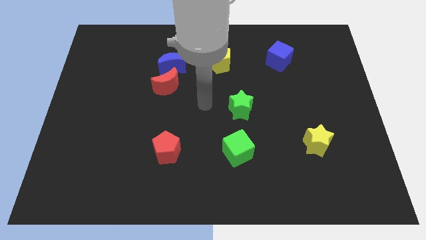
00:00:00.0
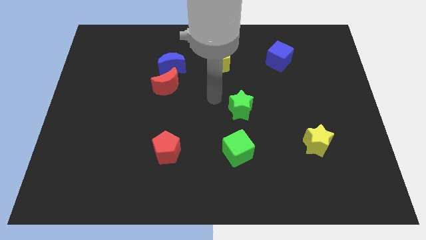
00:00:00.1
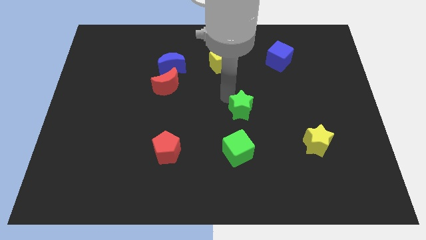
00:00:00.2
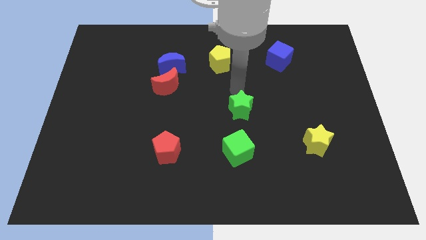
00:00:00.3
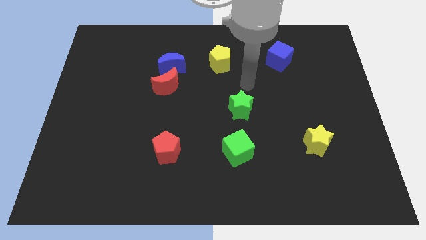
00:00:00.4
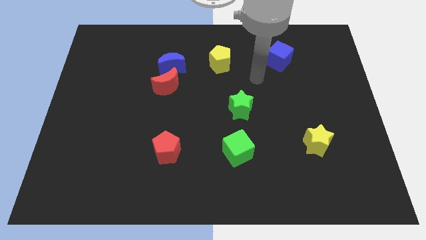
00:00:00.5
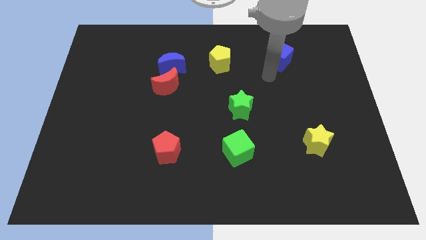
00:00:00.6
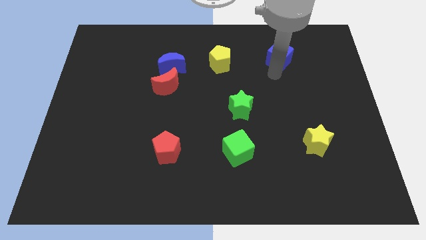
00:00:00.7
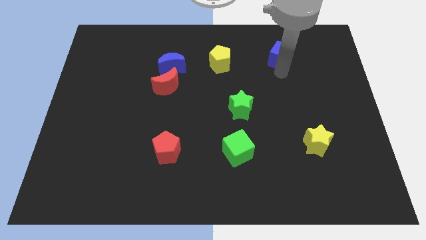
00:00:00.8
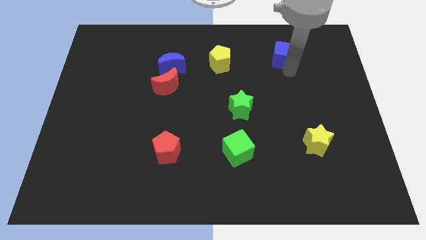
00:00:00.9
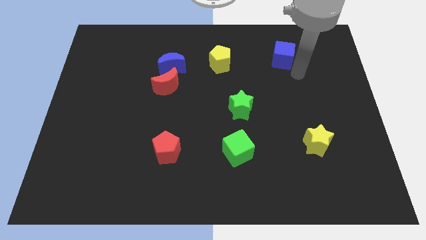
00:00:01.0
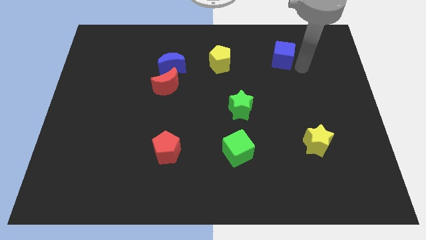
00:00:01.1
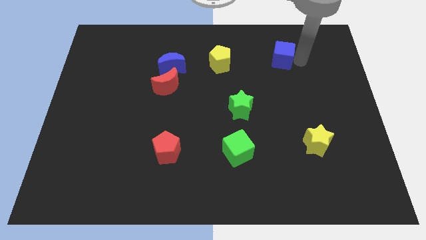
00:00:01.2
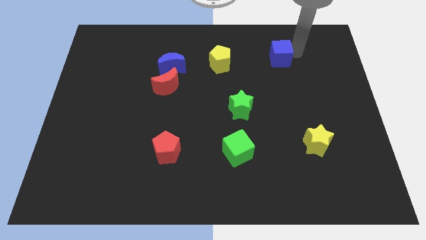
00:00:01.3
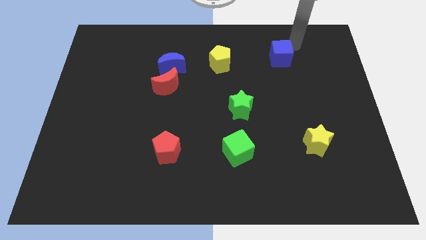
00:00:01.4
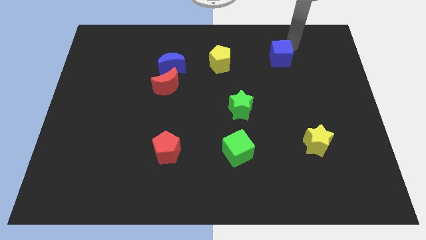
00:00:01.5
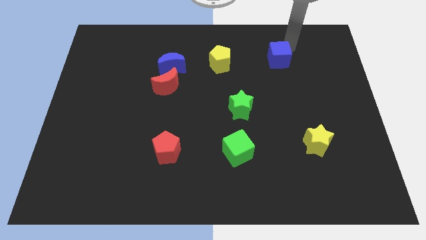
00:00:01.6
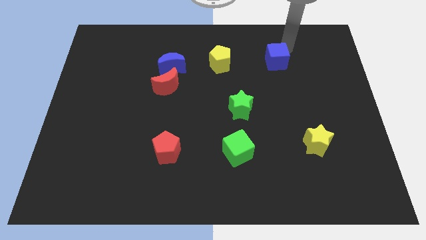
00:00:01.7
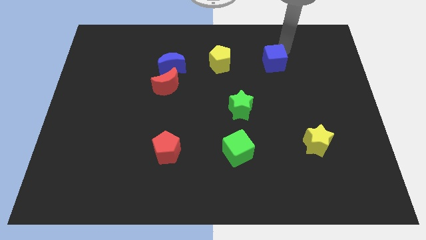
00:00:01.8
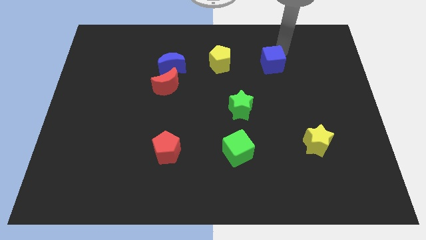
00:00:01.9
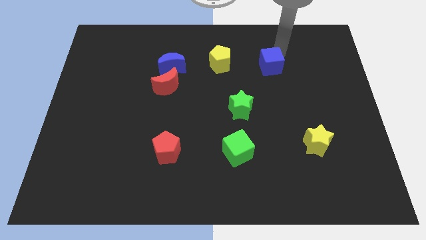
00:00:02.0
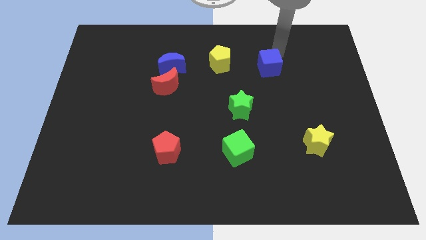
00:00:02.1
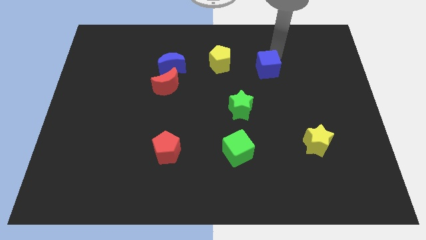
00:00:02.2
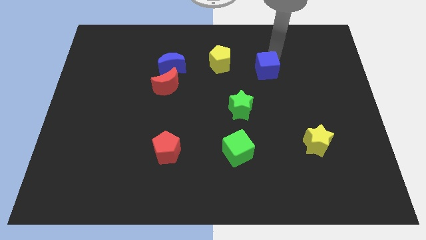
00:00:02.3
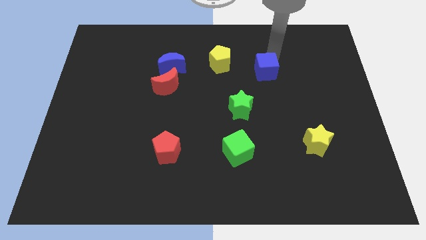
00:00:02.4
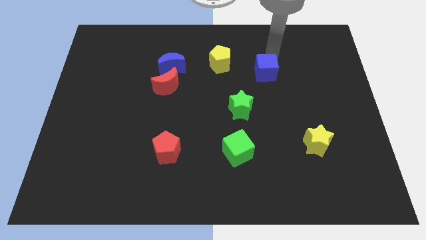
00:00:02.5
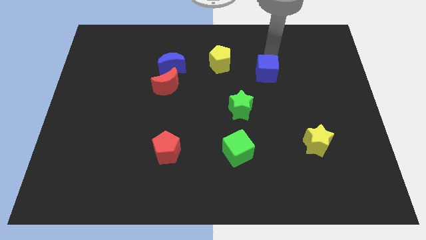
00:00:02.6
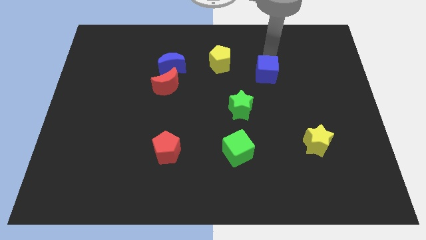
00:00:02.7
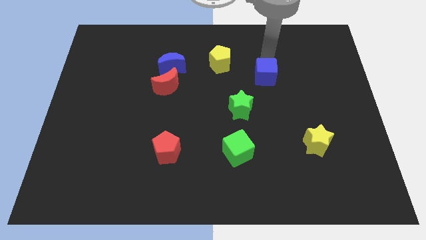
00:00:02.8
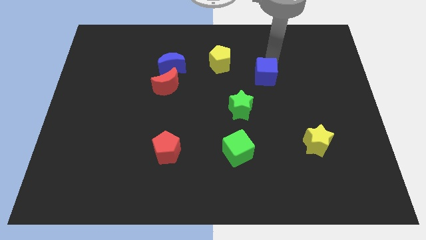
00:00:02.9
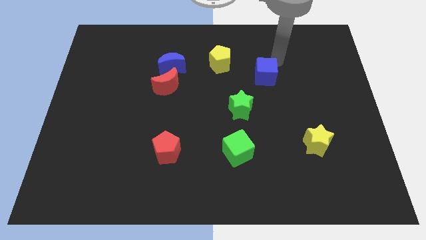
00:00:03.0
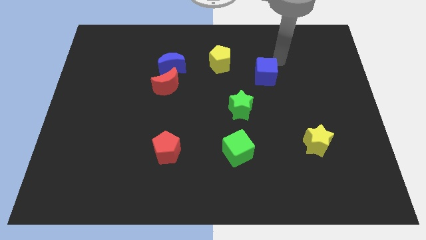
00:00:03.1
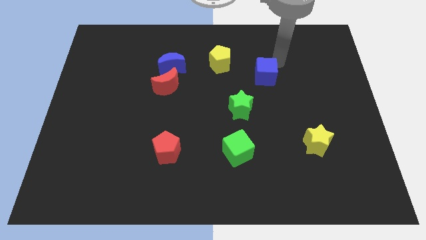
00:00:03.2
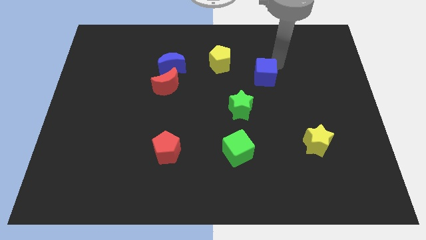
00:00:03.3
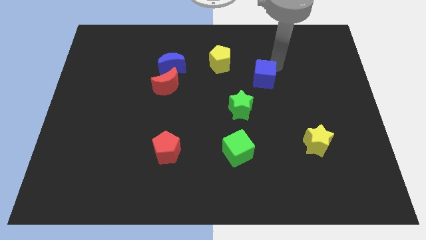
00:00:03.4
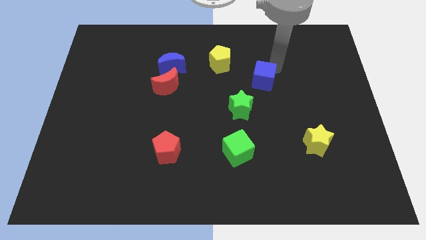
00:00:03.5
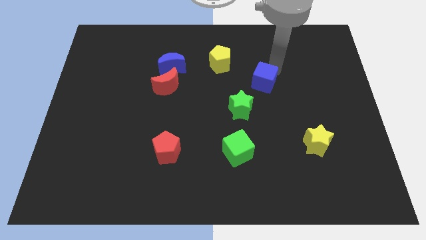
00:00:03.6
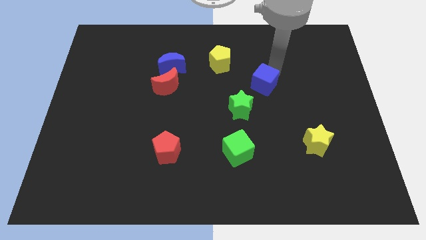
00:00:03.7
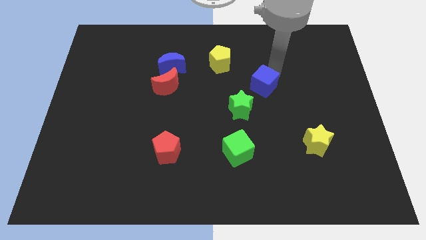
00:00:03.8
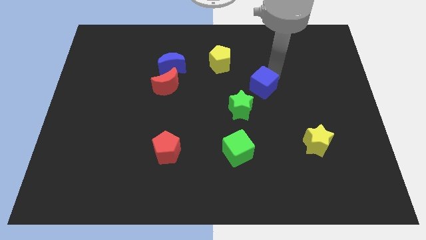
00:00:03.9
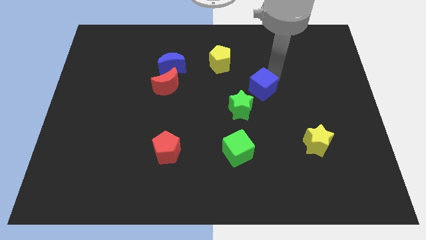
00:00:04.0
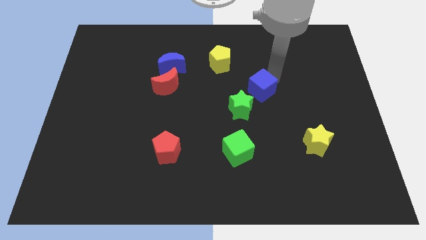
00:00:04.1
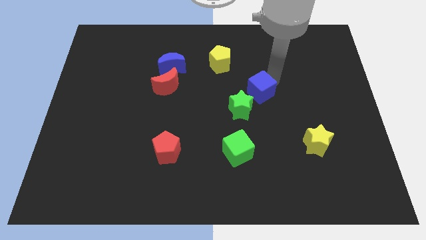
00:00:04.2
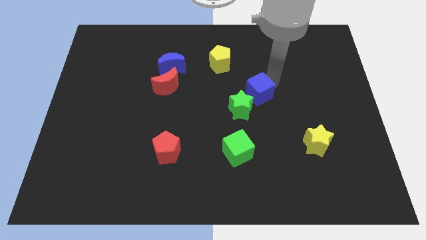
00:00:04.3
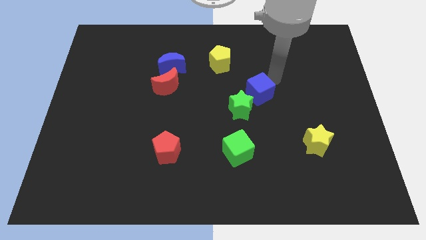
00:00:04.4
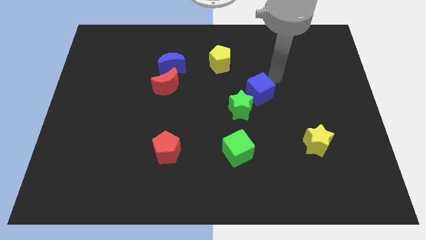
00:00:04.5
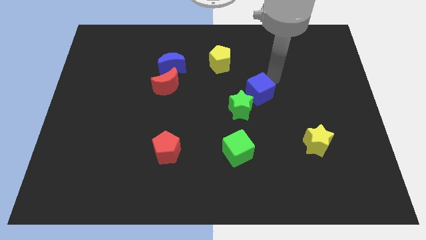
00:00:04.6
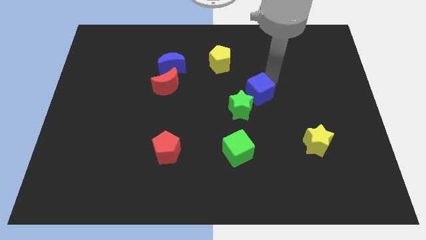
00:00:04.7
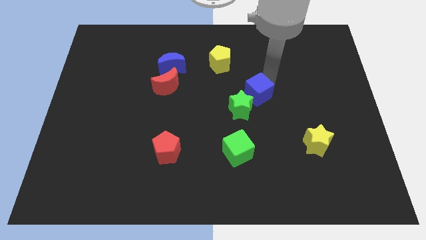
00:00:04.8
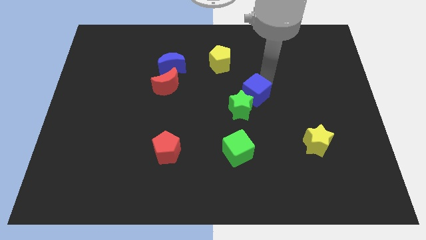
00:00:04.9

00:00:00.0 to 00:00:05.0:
move the blue cube to the green star

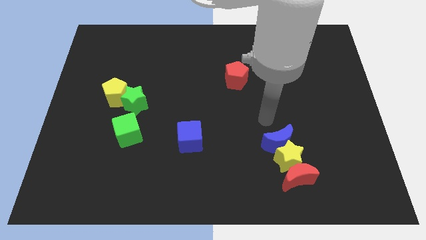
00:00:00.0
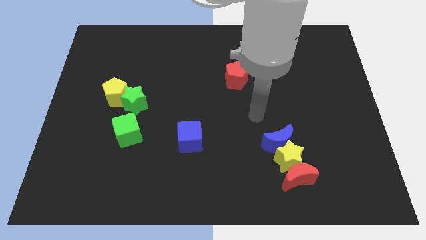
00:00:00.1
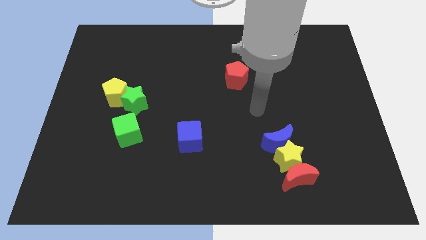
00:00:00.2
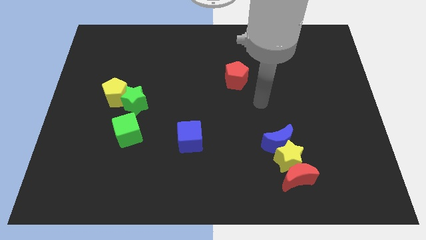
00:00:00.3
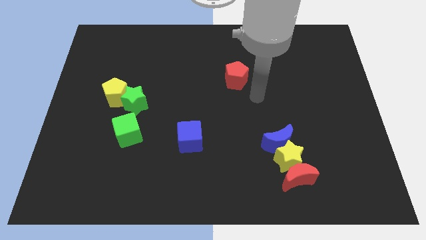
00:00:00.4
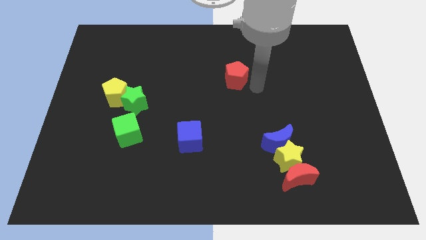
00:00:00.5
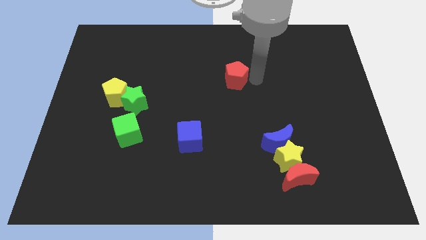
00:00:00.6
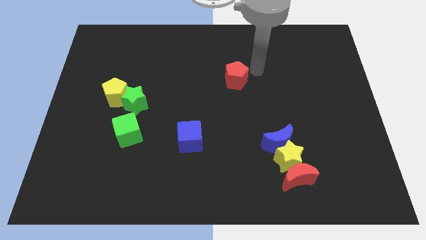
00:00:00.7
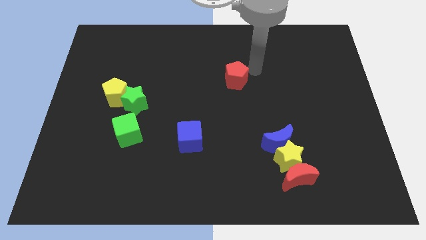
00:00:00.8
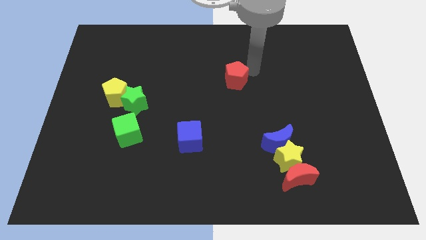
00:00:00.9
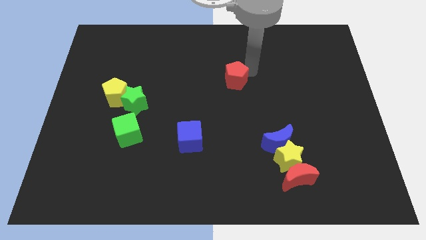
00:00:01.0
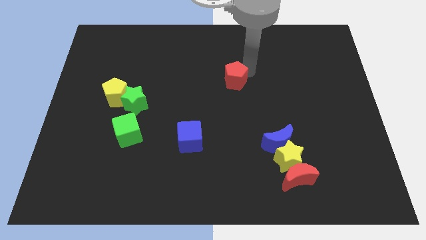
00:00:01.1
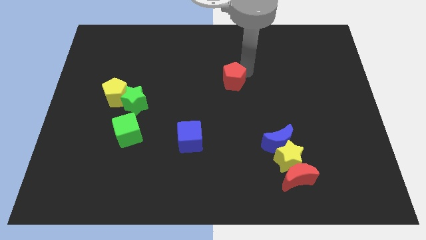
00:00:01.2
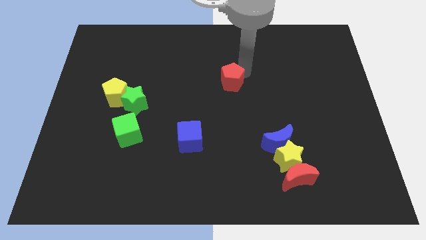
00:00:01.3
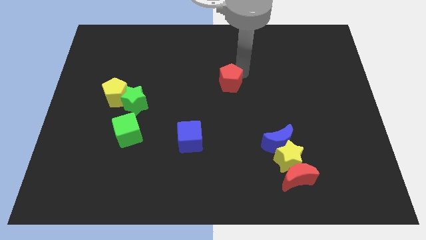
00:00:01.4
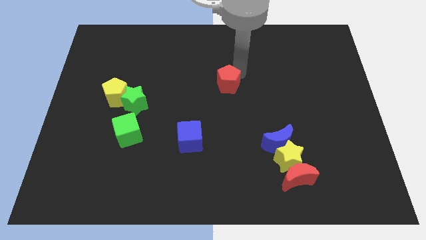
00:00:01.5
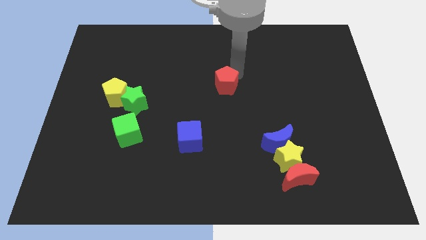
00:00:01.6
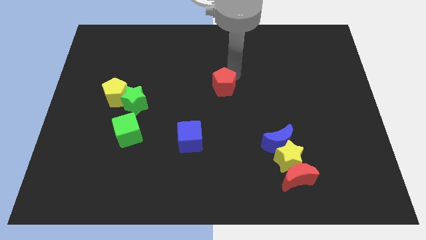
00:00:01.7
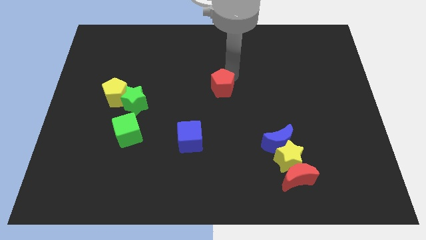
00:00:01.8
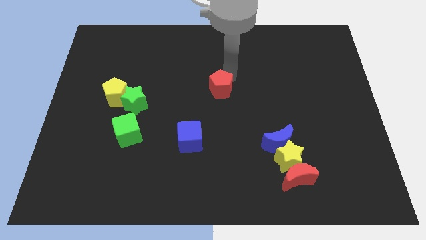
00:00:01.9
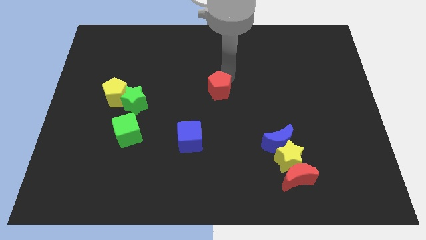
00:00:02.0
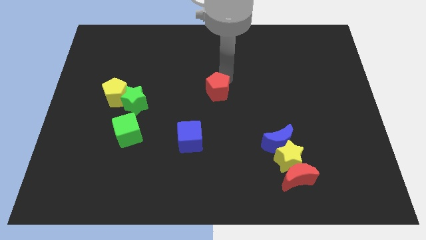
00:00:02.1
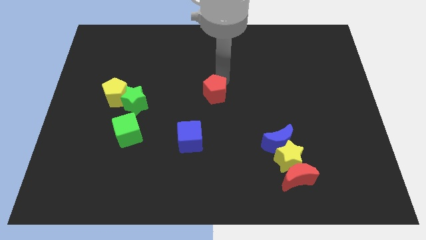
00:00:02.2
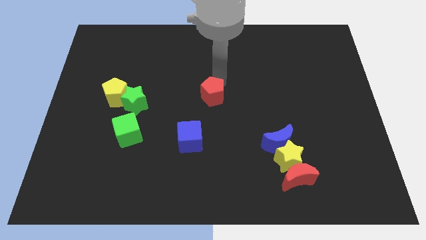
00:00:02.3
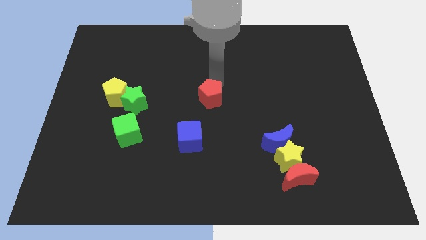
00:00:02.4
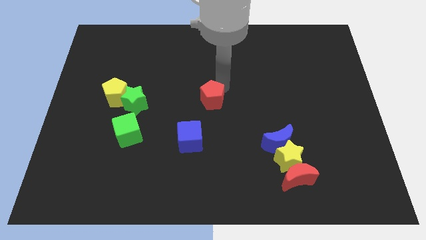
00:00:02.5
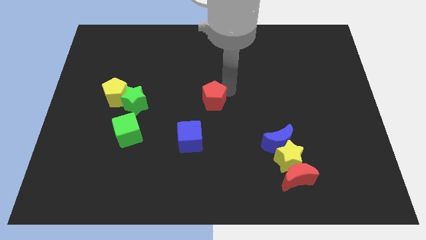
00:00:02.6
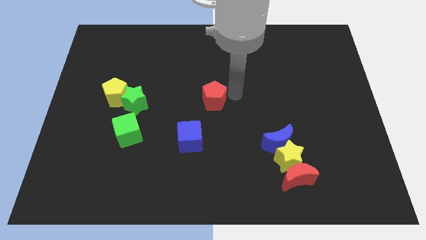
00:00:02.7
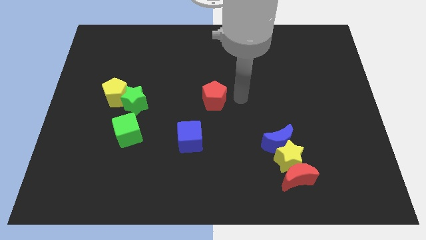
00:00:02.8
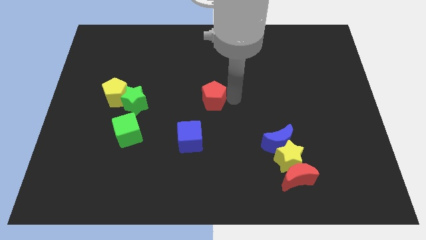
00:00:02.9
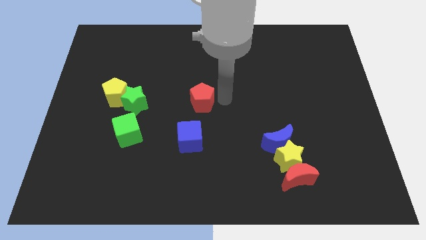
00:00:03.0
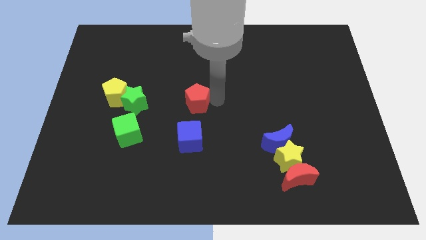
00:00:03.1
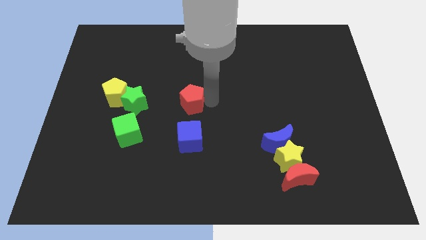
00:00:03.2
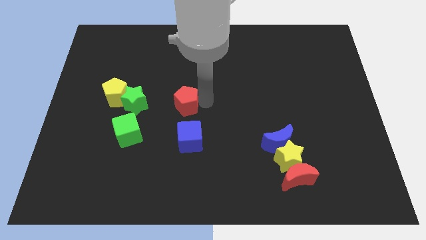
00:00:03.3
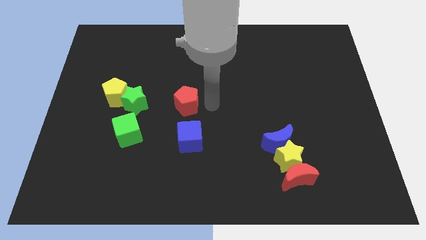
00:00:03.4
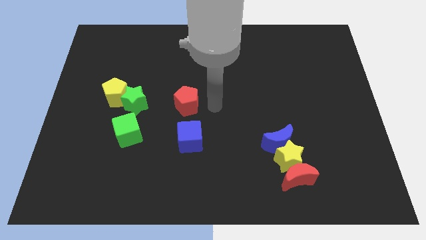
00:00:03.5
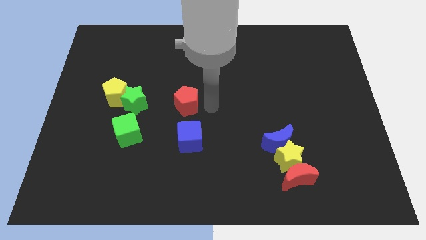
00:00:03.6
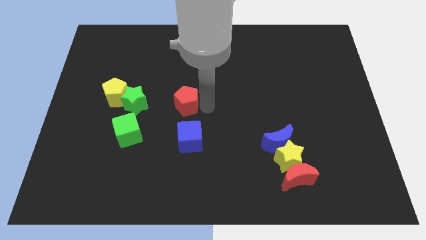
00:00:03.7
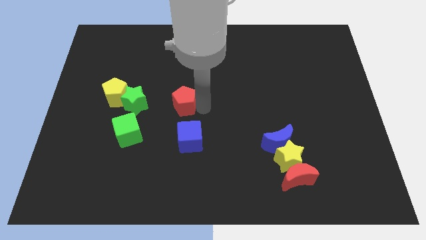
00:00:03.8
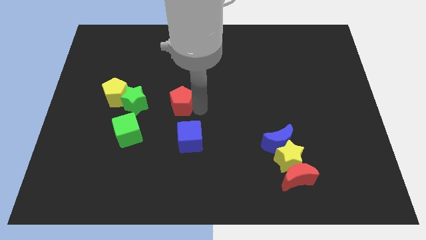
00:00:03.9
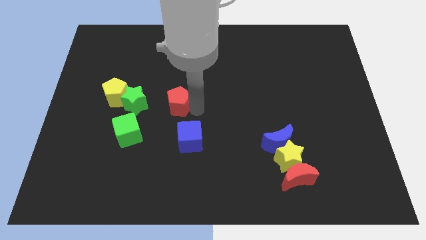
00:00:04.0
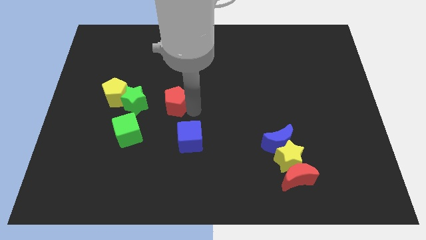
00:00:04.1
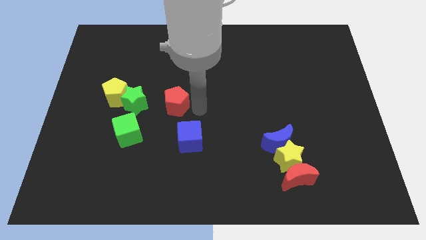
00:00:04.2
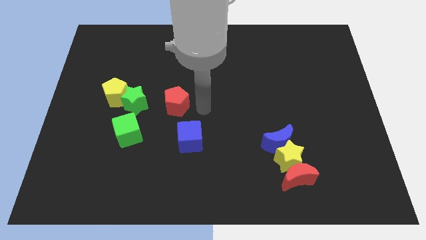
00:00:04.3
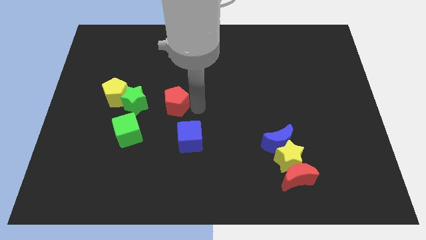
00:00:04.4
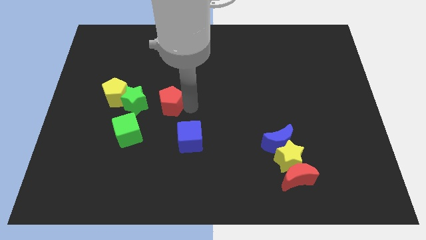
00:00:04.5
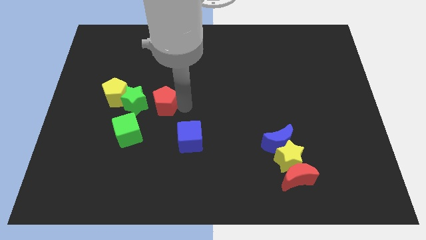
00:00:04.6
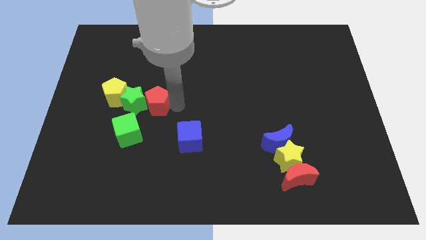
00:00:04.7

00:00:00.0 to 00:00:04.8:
slide the red pentagon close to the green star
